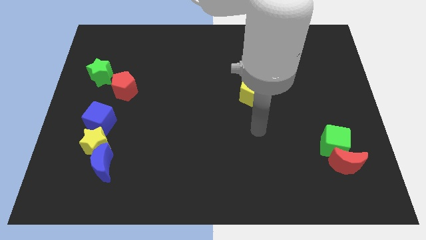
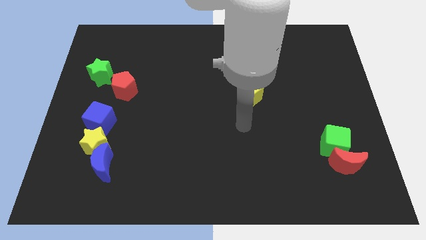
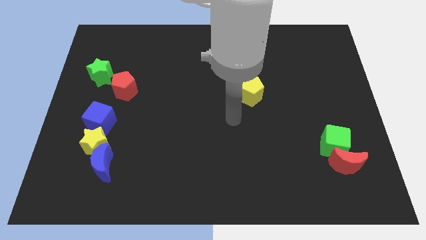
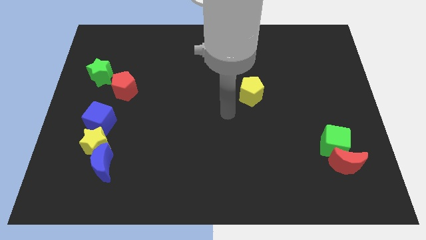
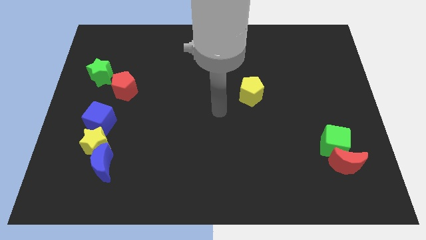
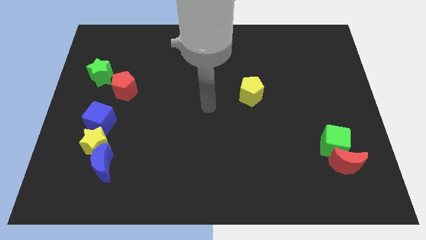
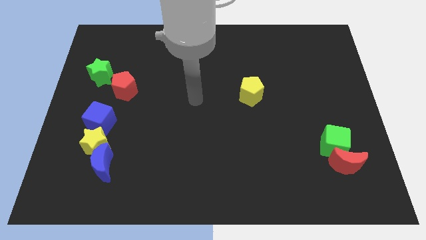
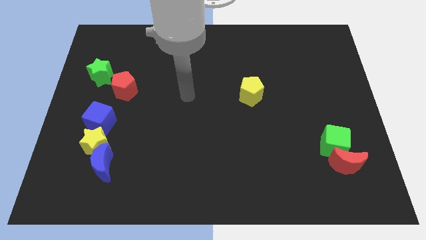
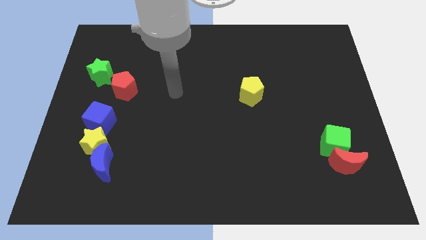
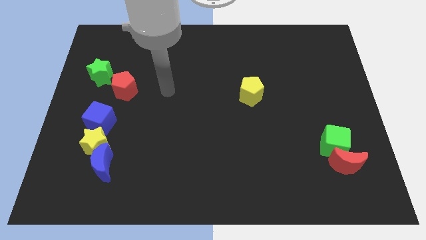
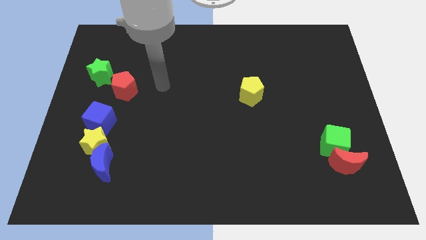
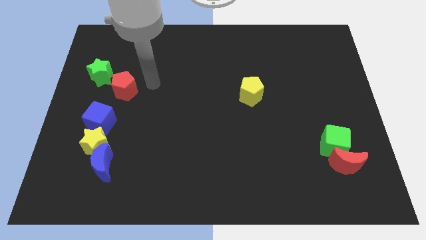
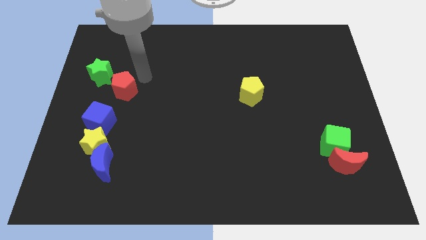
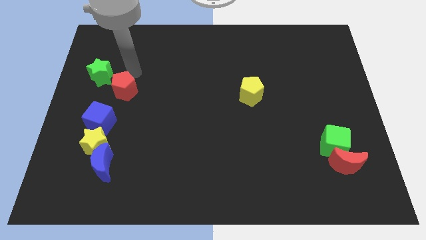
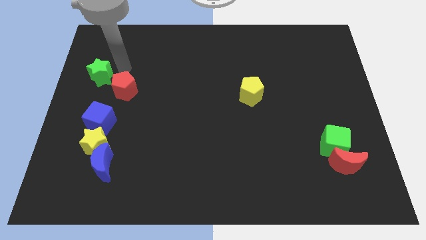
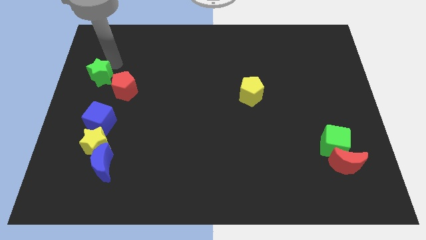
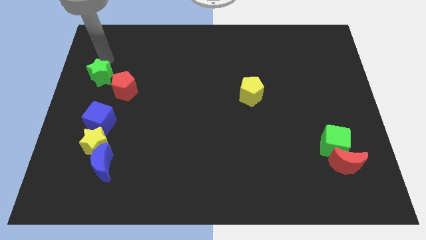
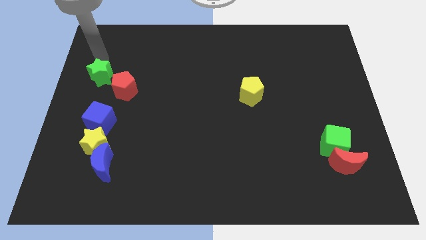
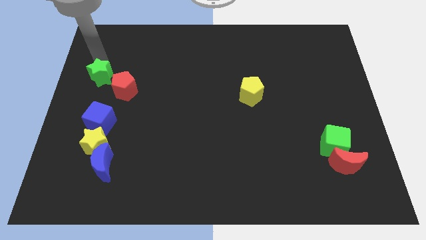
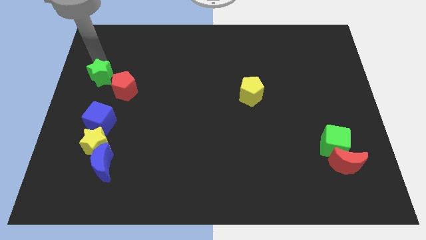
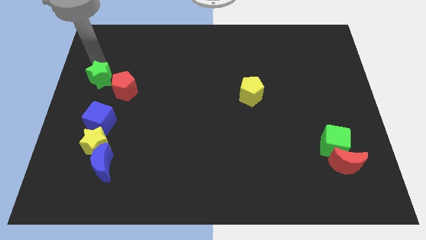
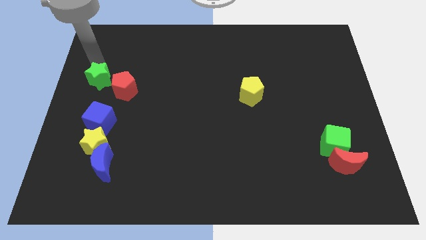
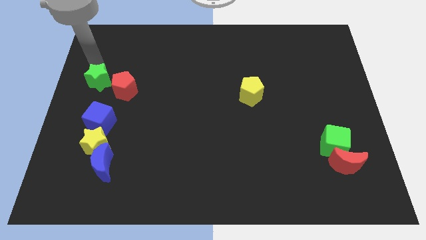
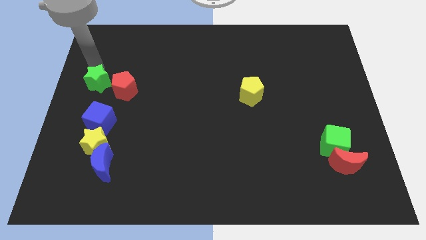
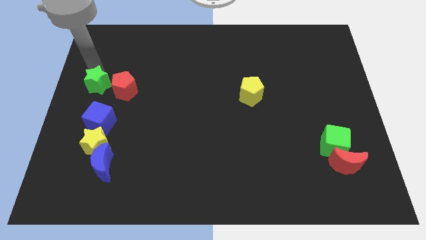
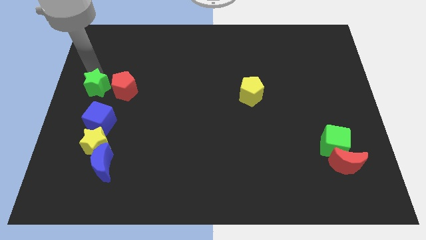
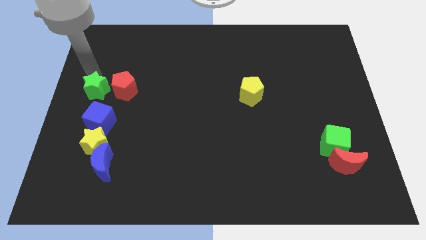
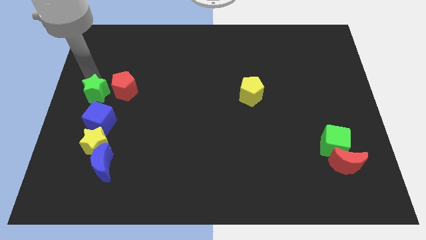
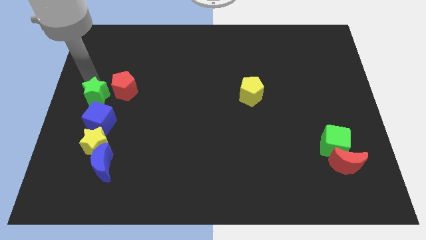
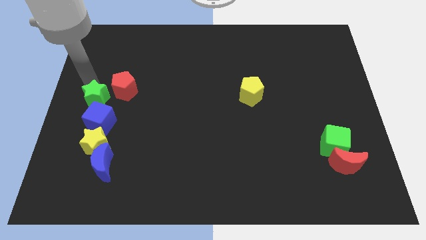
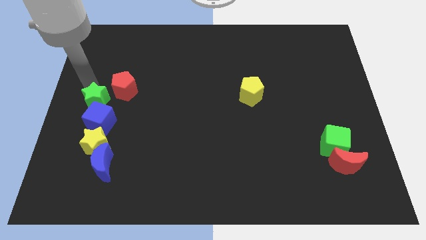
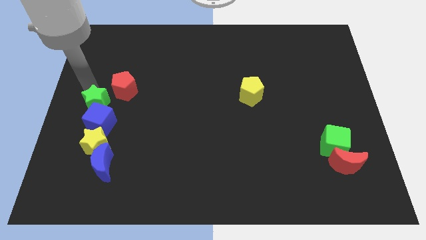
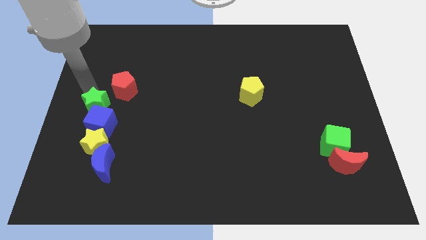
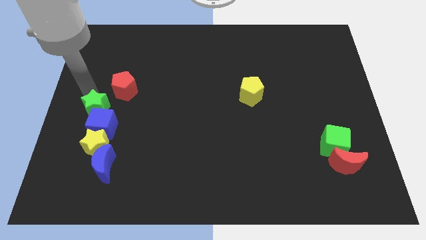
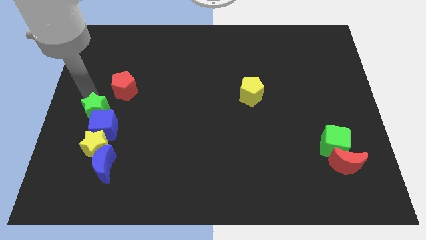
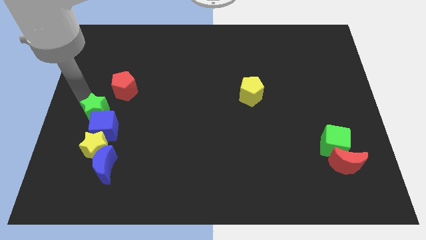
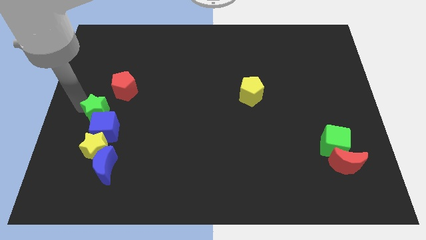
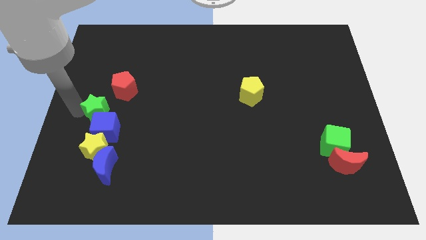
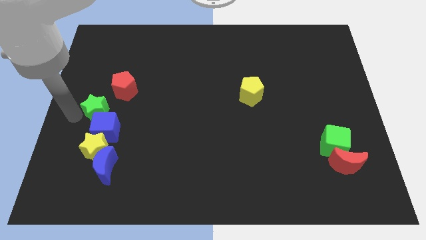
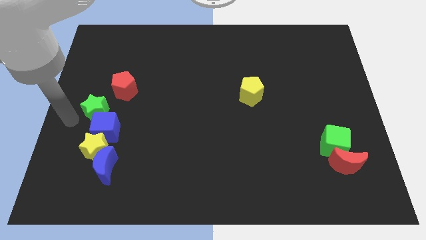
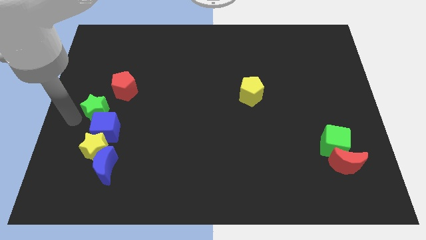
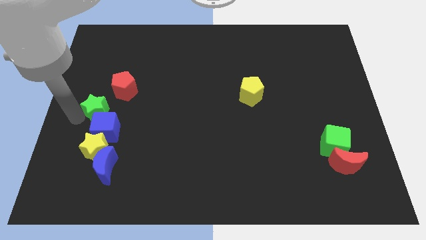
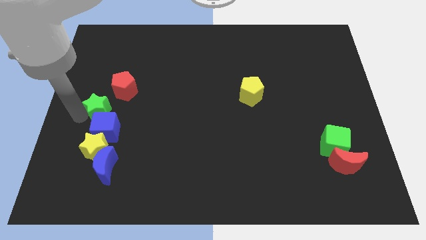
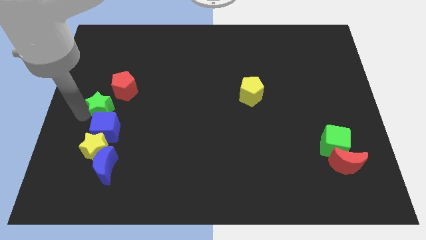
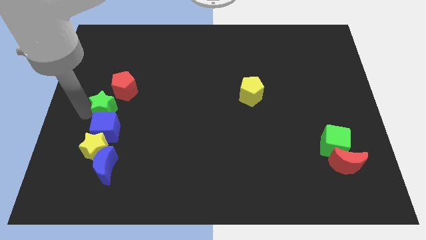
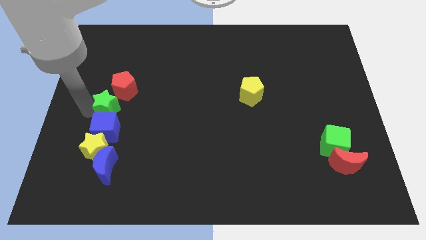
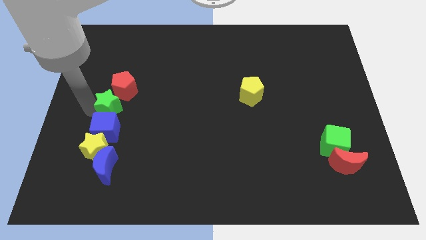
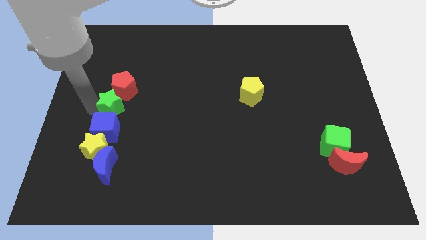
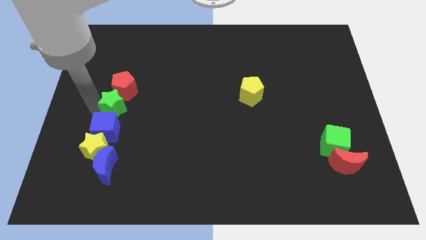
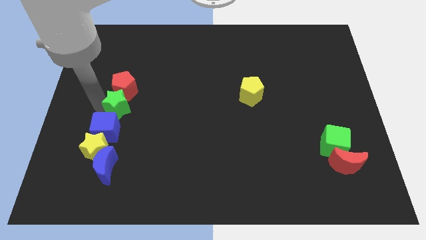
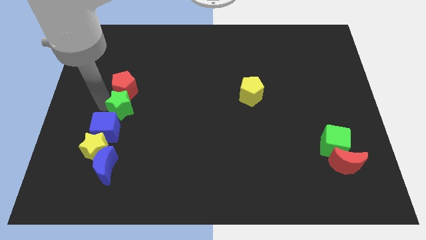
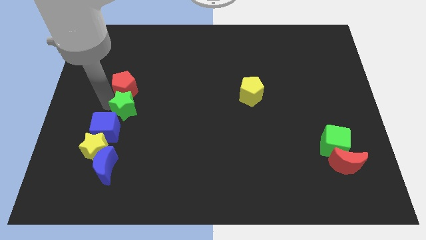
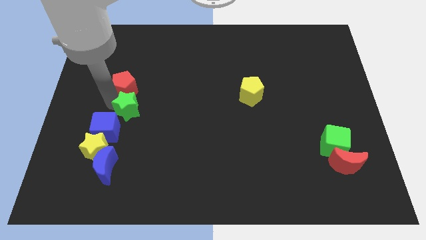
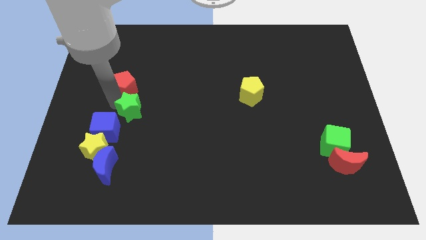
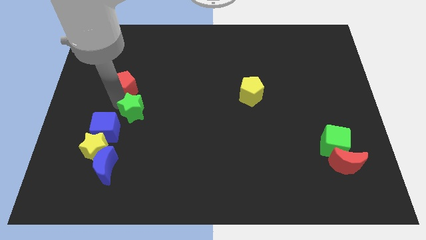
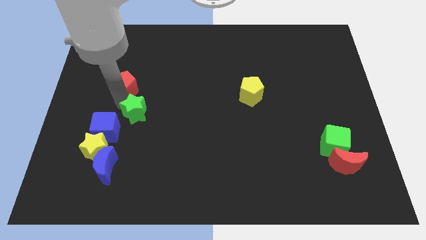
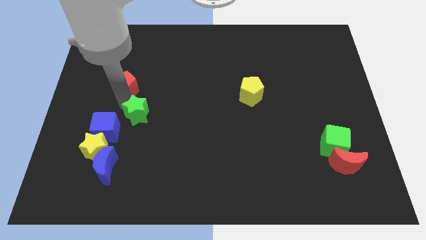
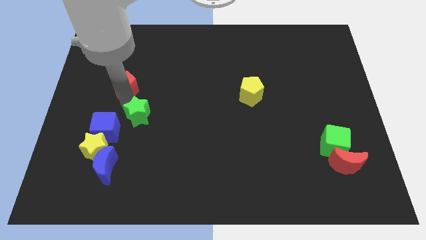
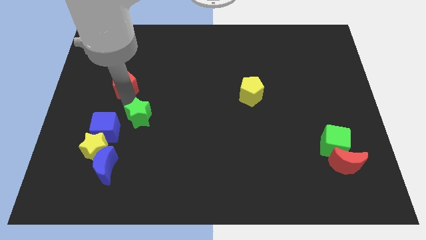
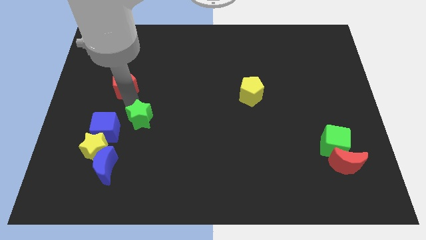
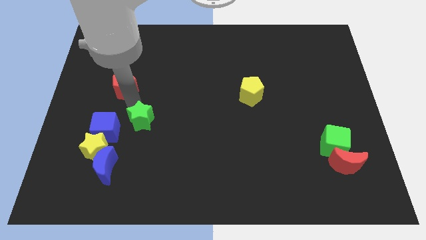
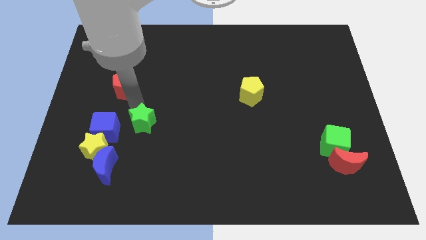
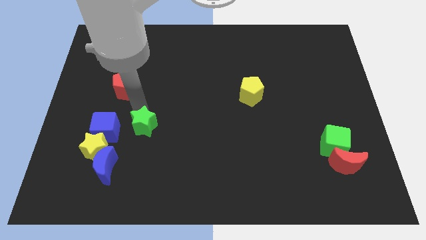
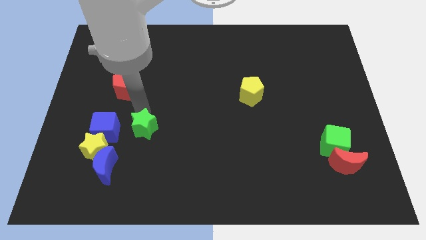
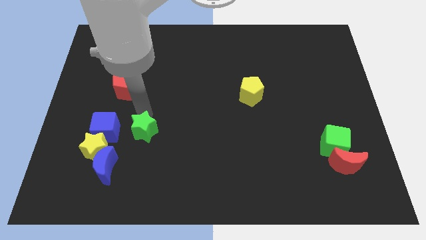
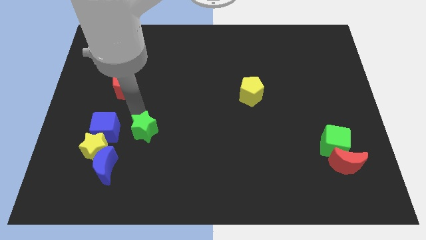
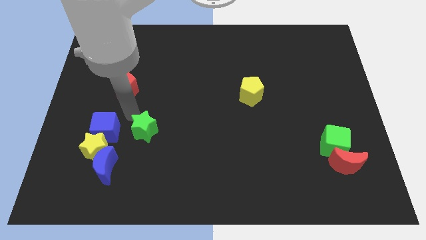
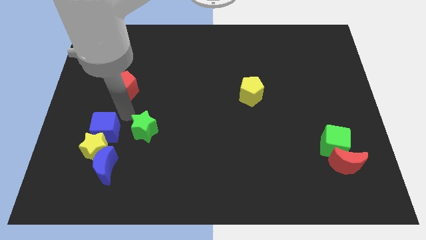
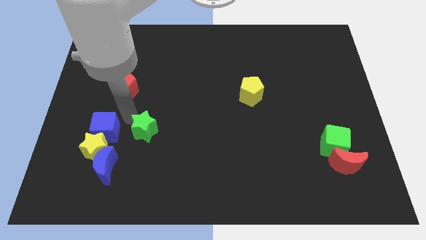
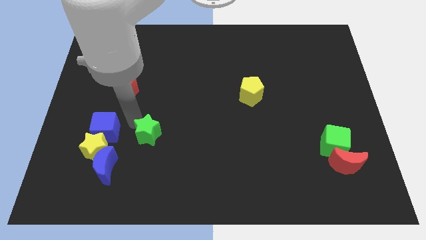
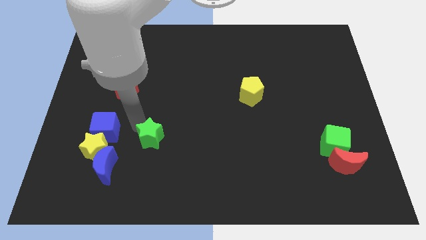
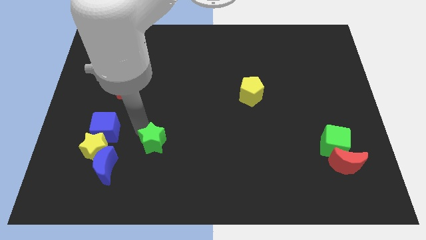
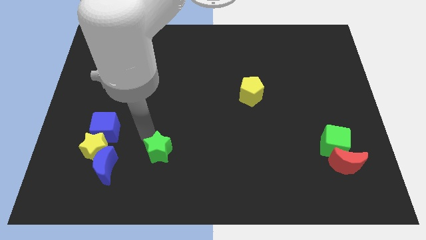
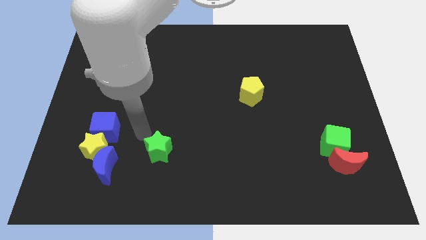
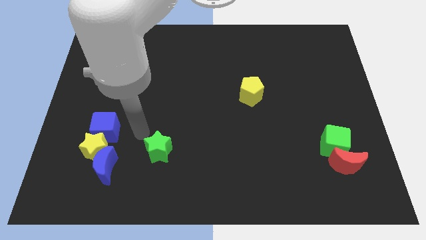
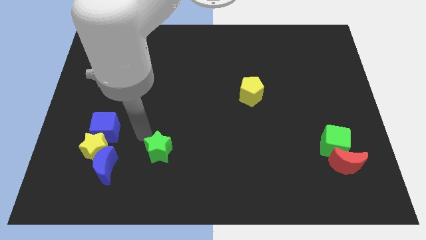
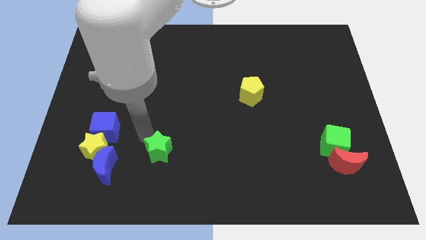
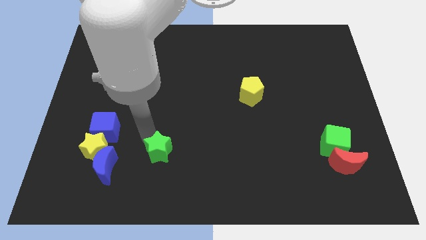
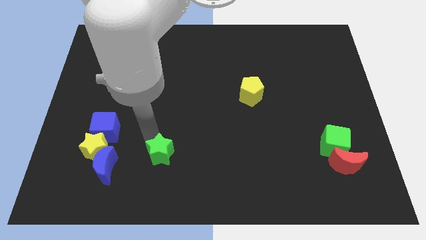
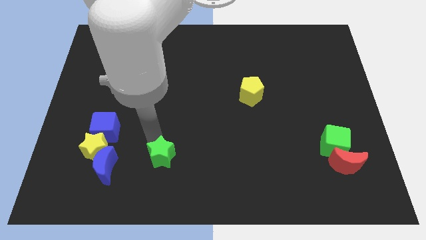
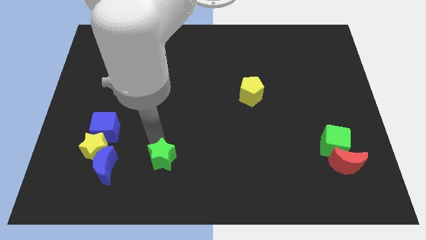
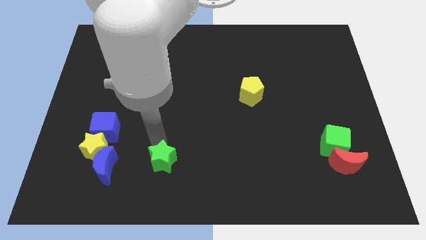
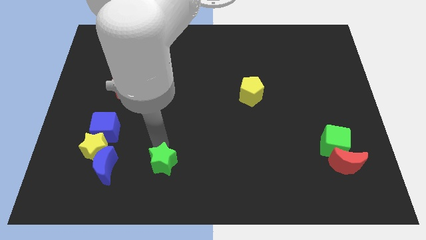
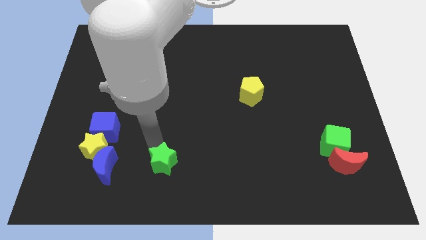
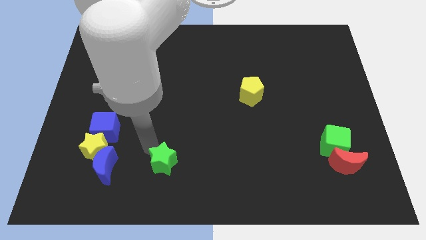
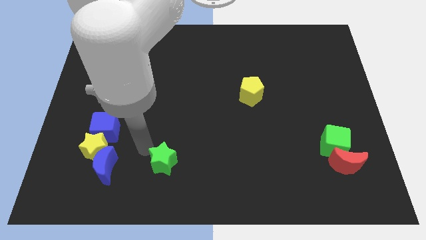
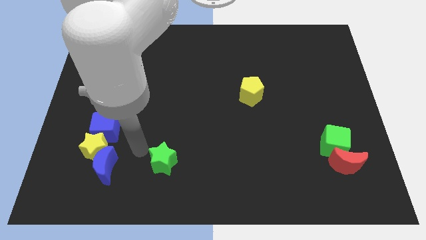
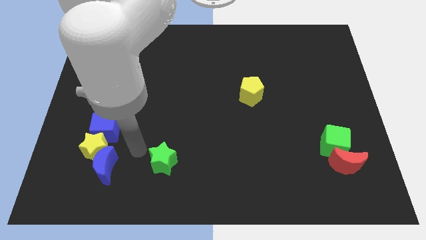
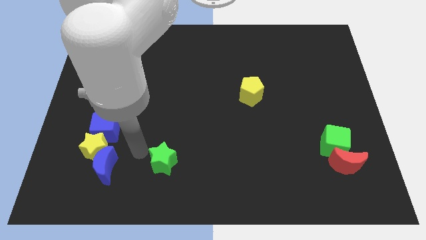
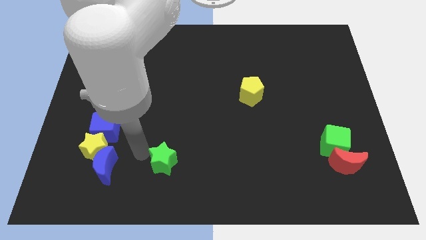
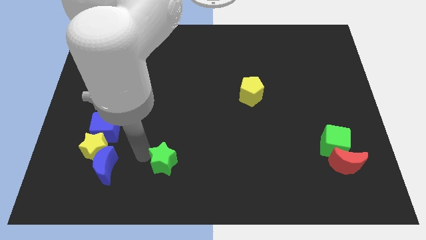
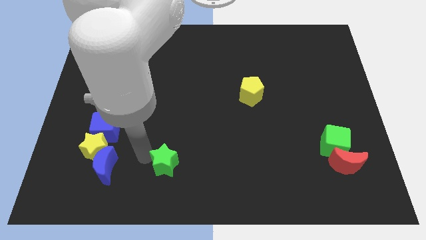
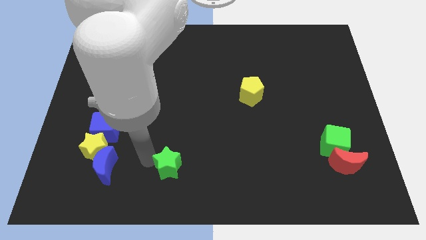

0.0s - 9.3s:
push the green star to the bottom
